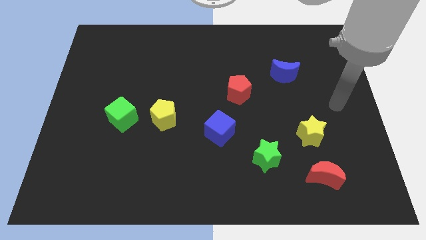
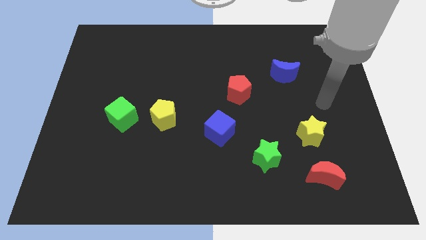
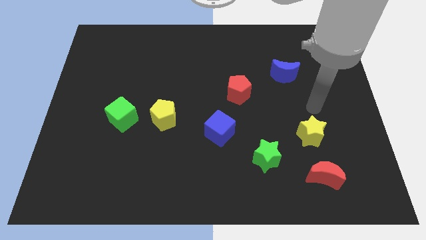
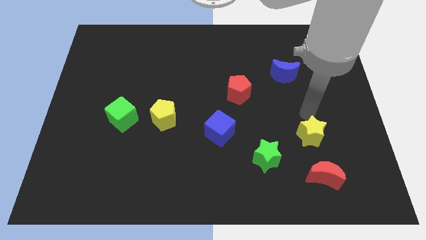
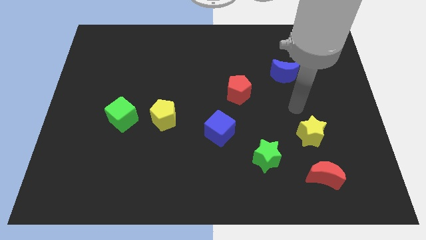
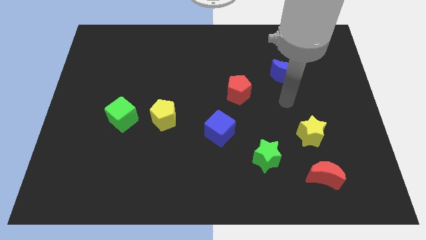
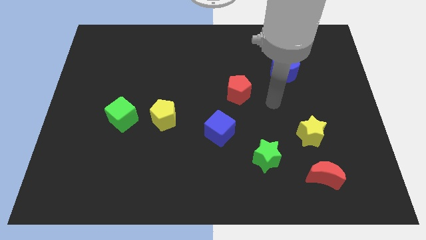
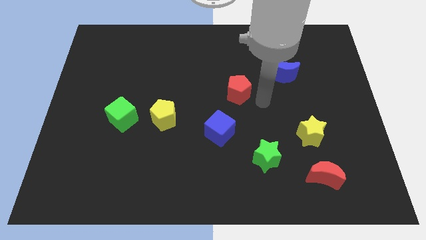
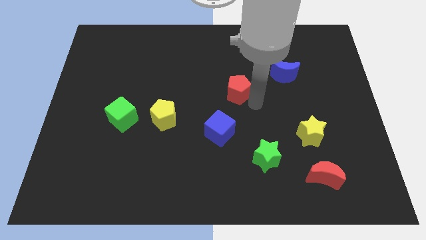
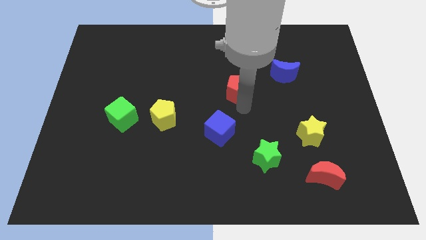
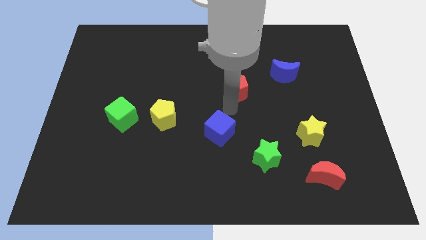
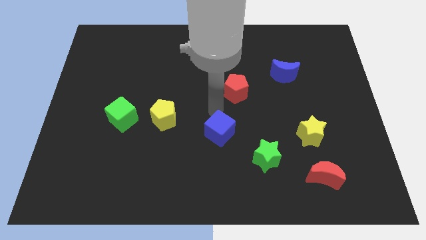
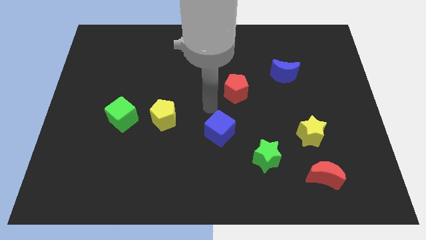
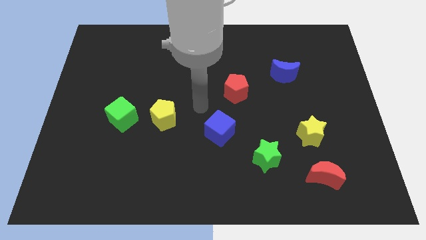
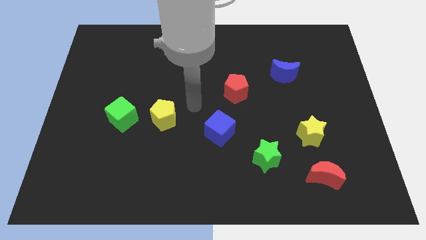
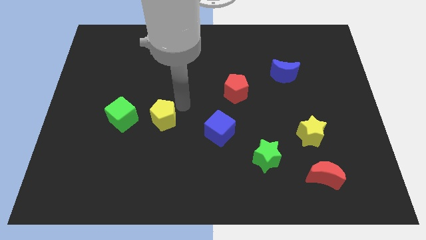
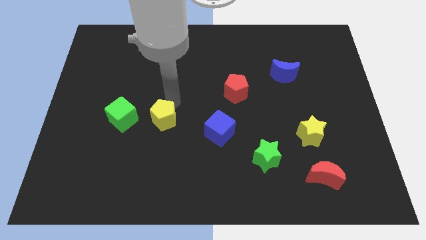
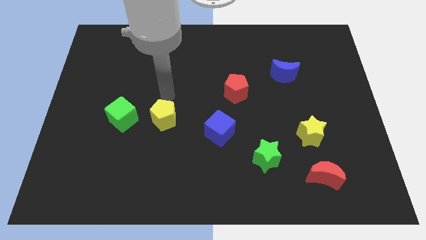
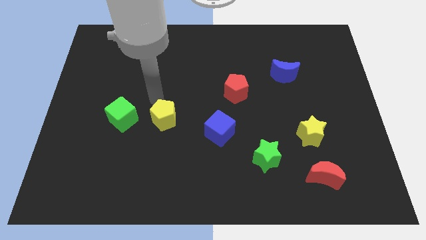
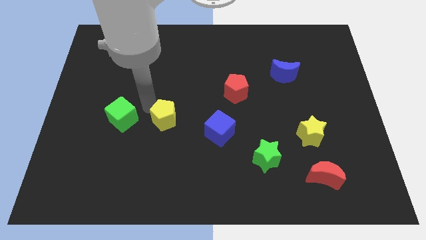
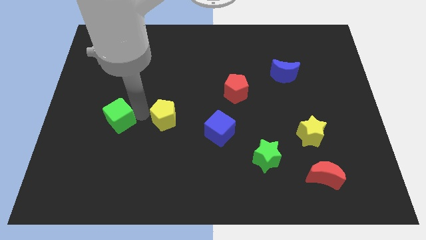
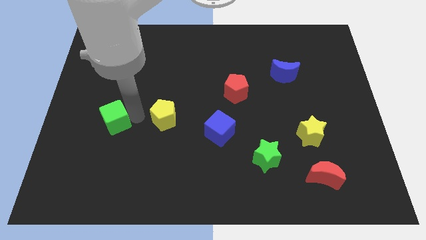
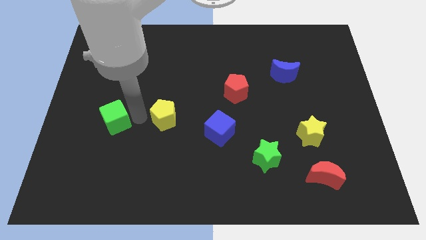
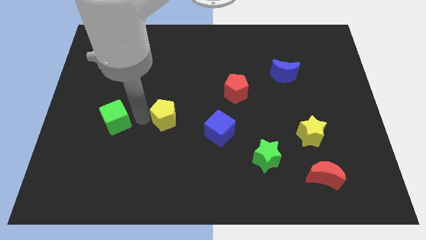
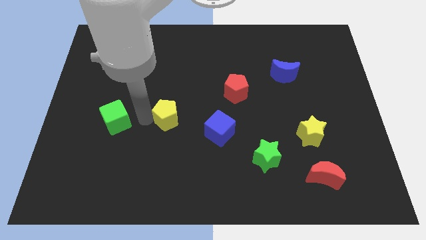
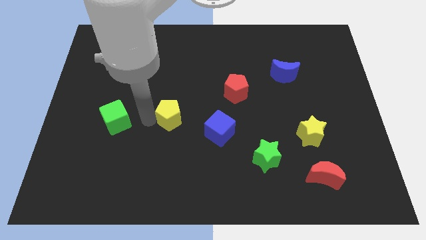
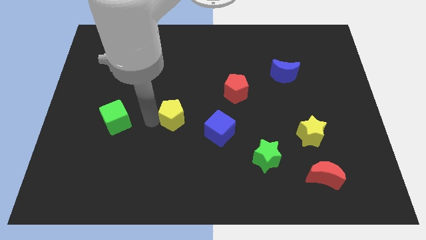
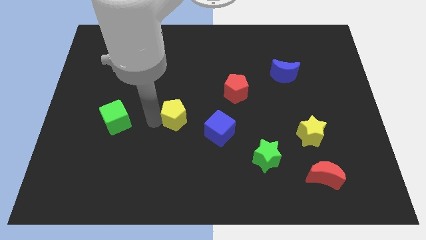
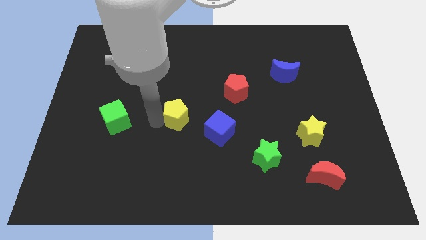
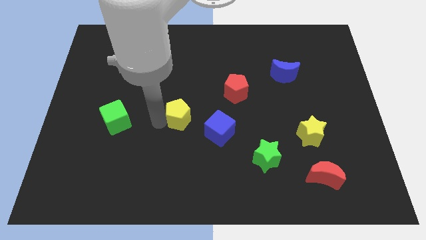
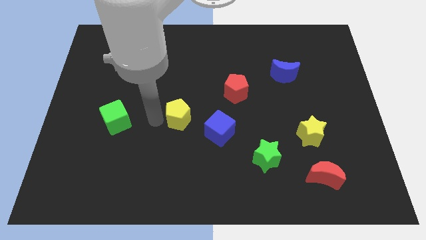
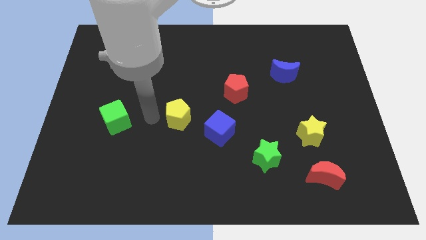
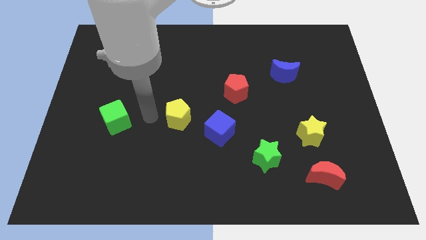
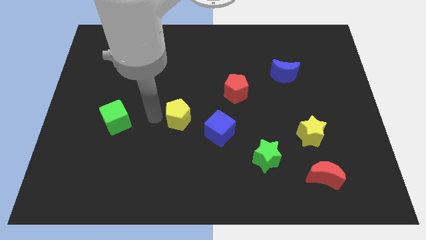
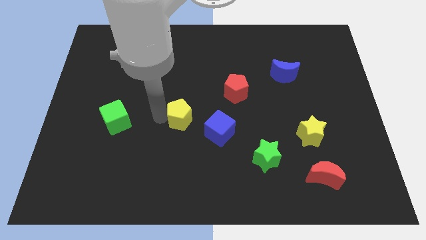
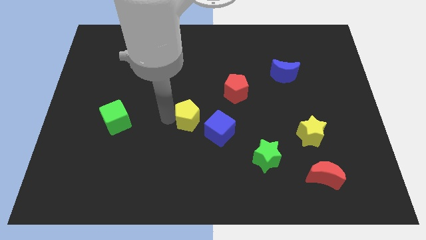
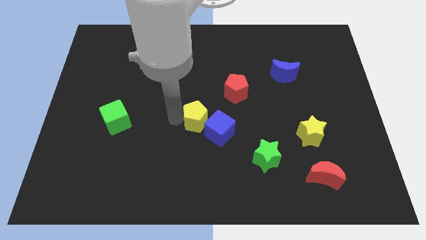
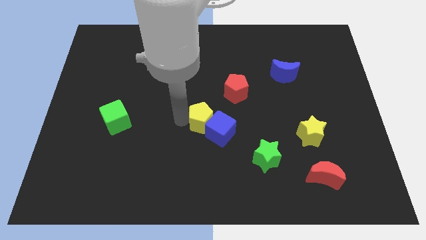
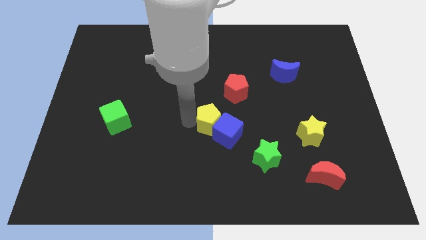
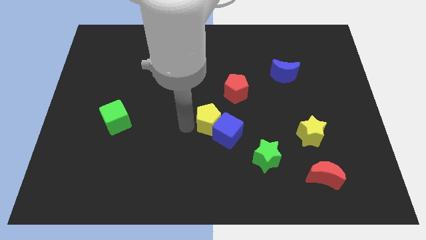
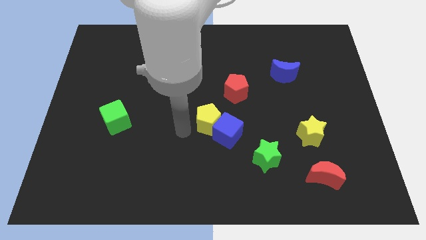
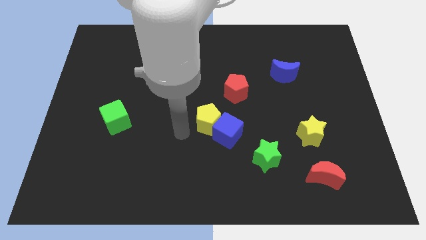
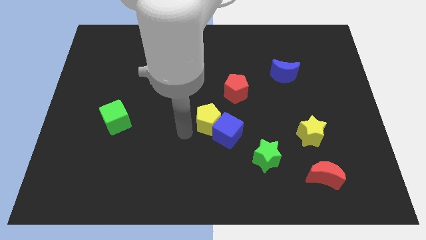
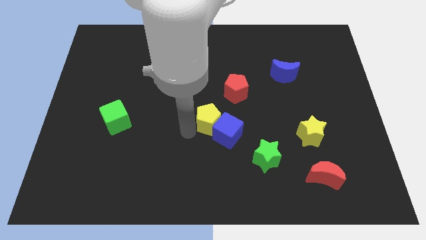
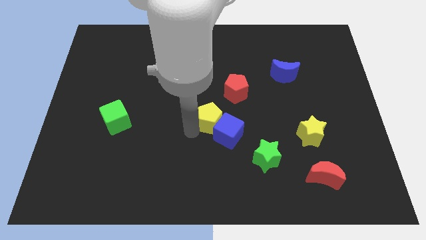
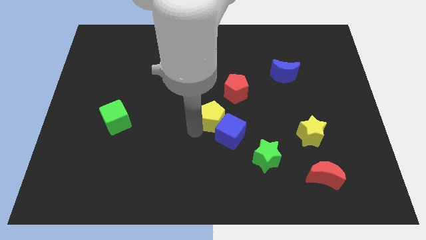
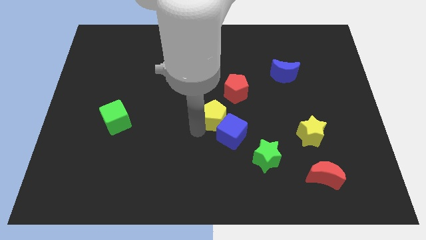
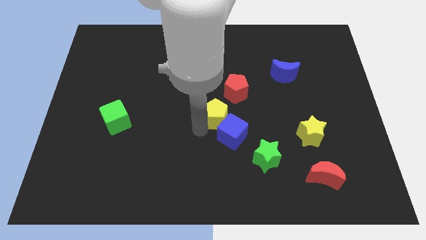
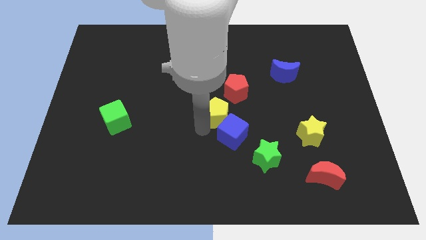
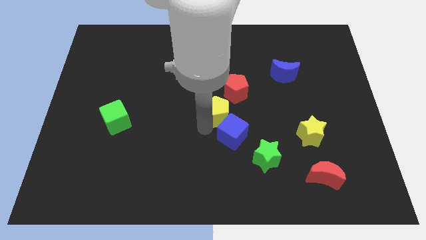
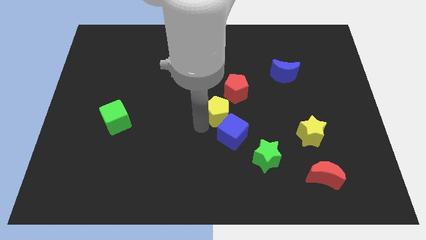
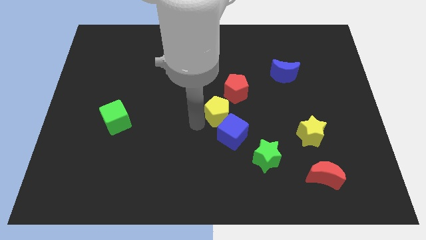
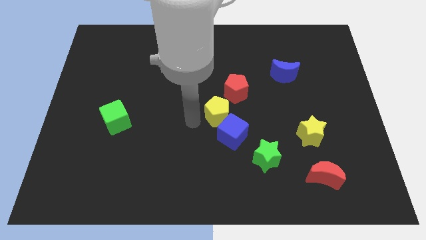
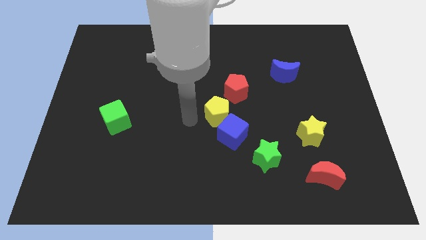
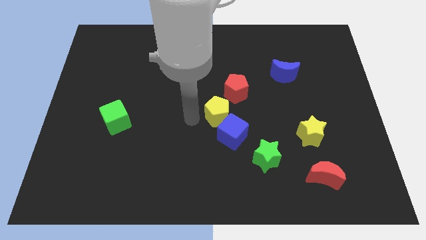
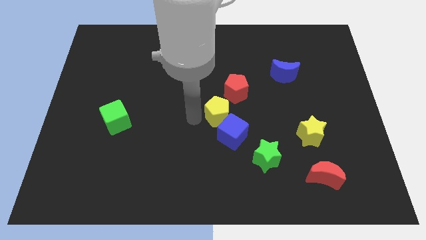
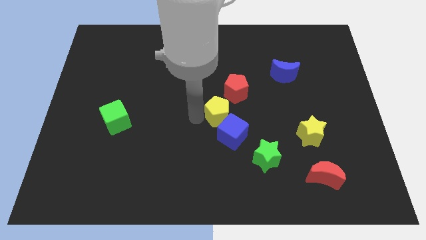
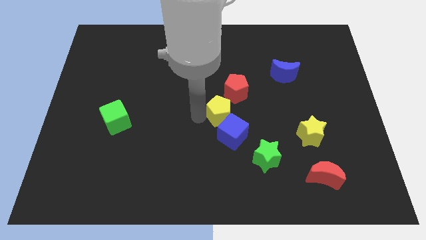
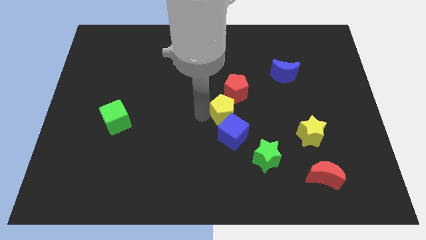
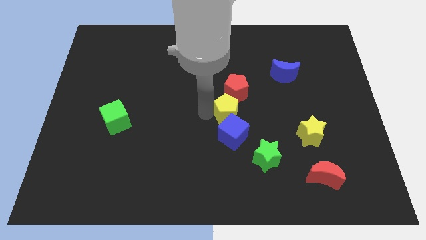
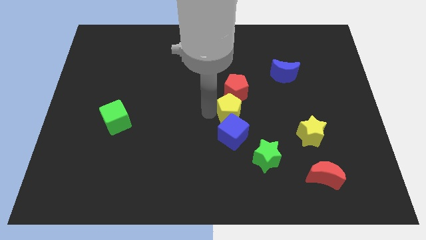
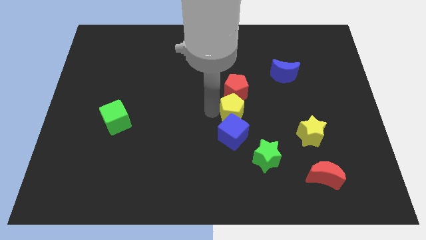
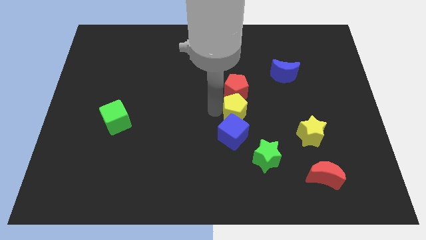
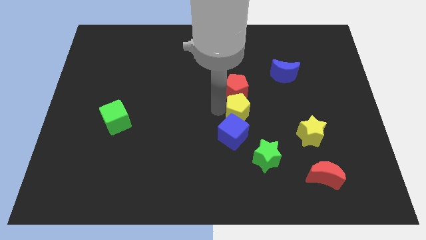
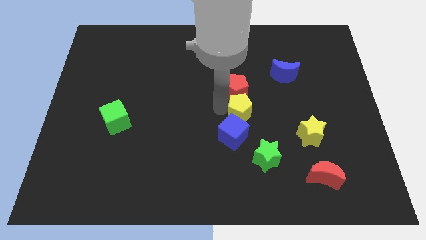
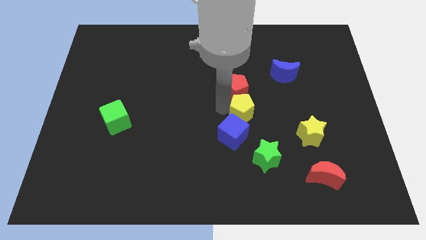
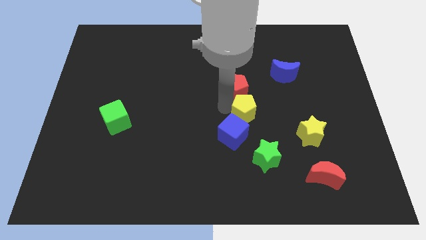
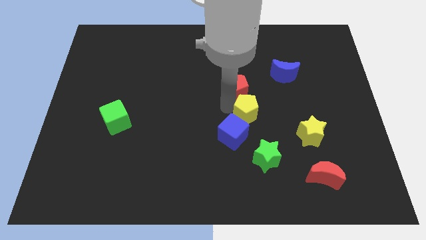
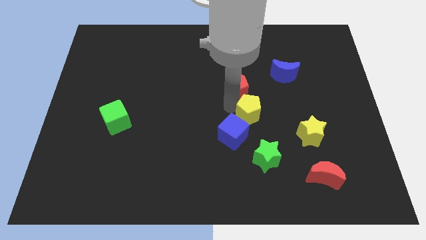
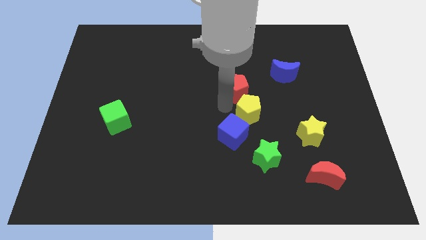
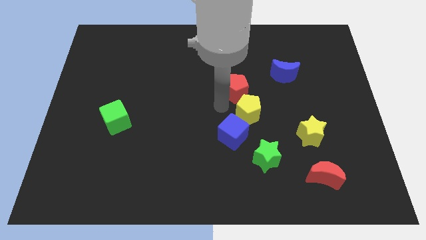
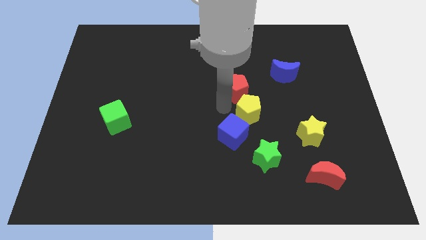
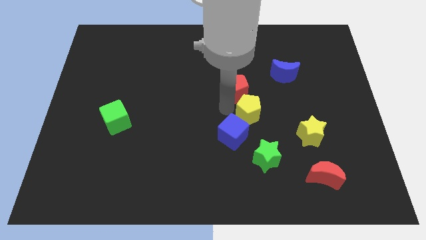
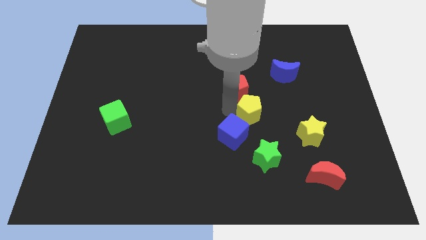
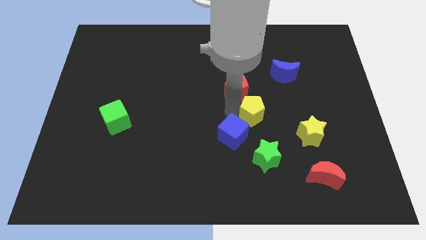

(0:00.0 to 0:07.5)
slide the yellow pentagon to the right

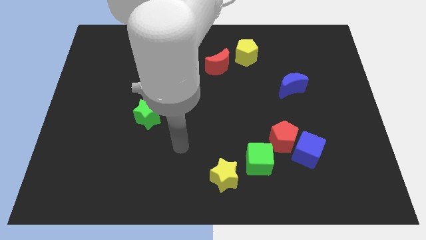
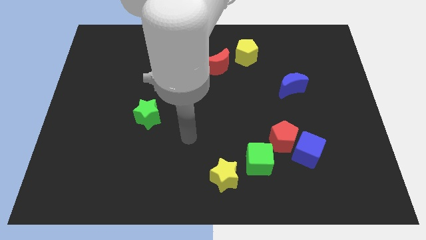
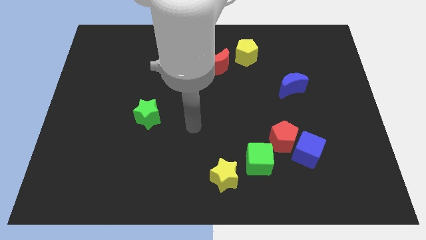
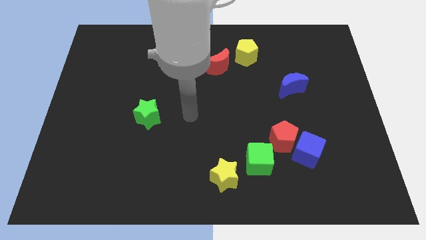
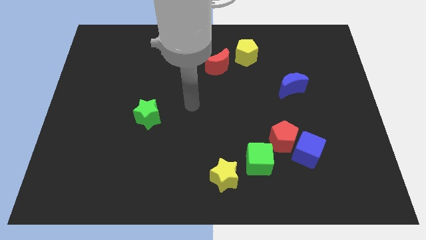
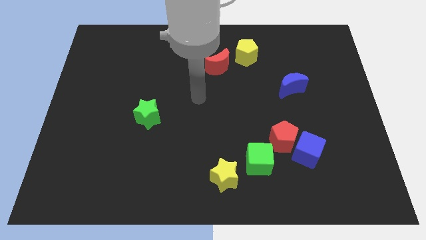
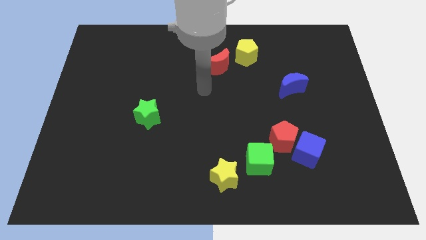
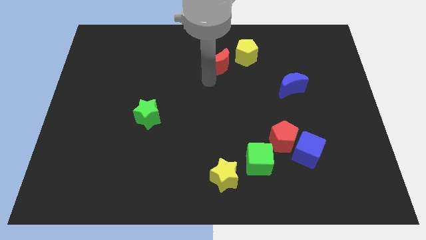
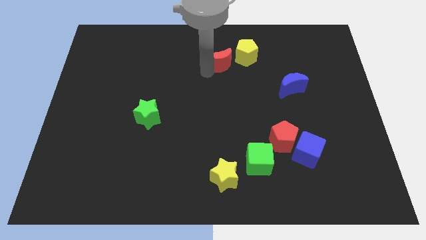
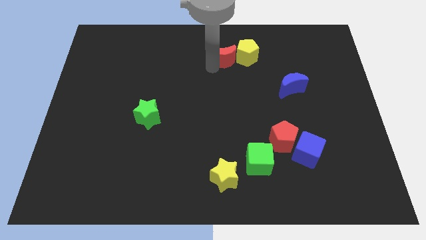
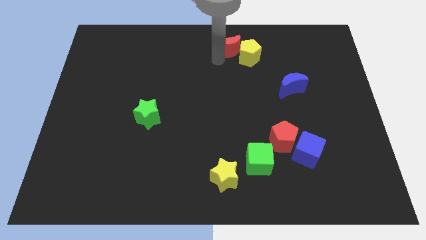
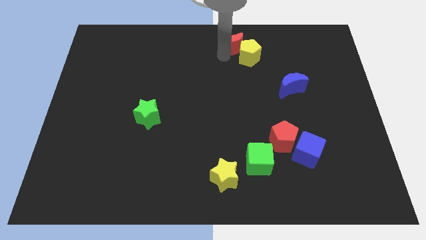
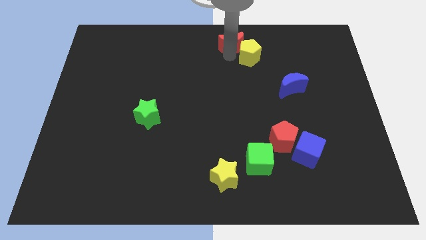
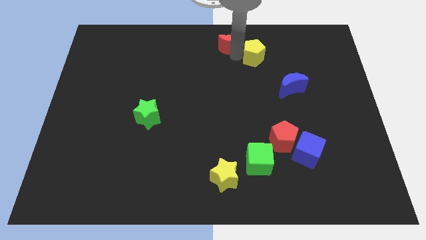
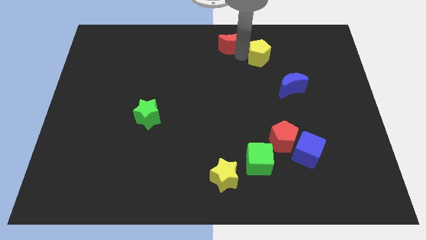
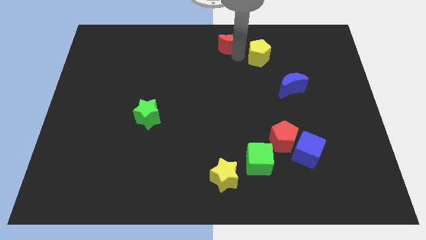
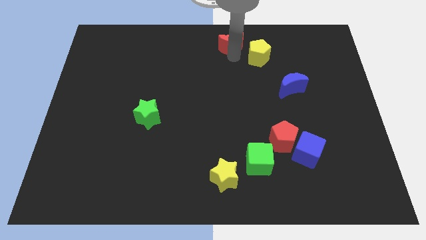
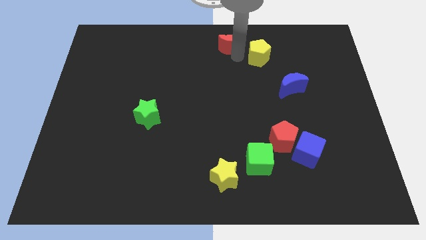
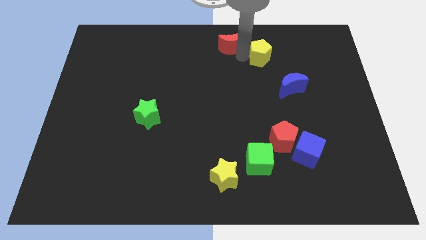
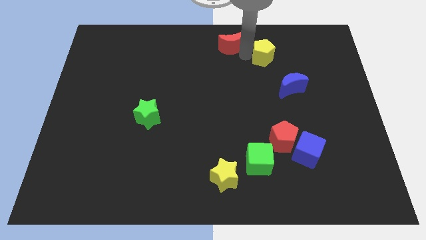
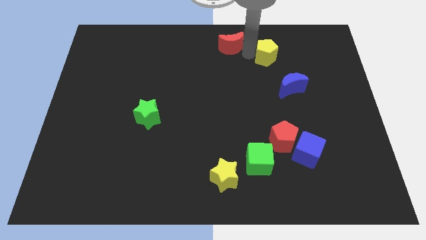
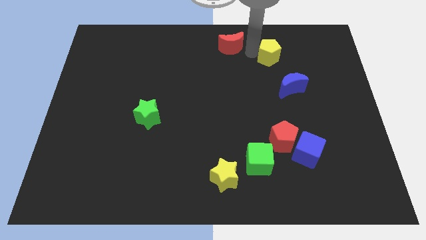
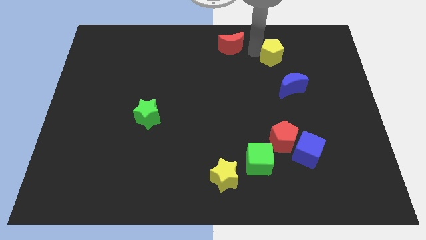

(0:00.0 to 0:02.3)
push the yellow pentagon right slightly
